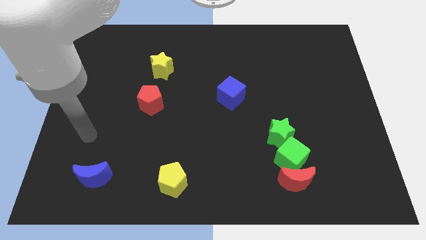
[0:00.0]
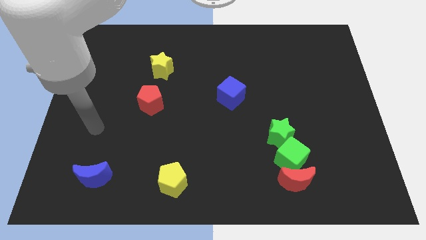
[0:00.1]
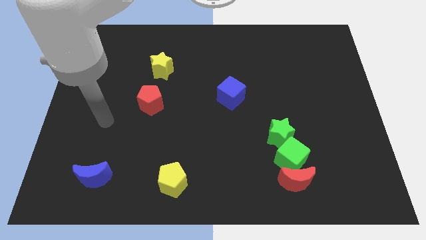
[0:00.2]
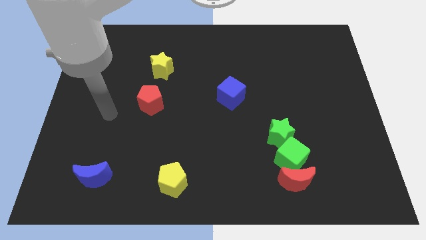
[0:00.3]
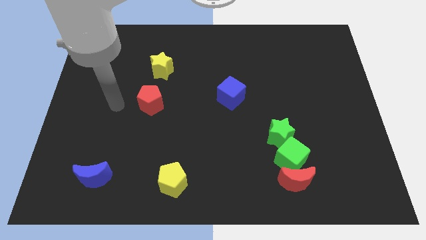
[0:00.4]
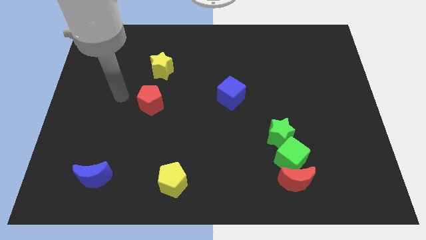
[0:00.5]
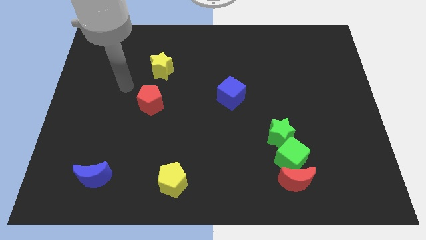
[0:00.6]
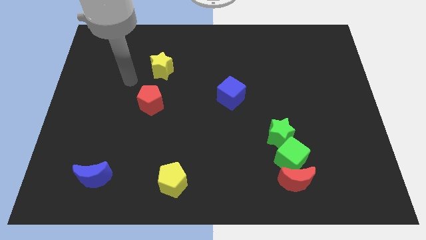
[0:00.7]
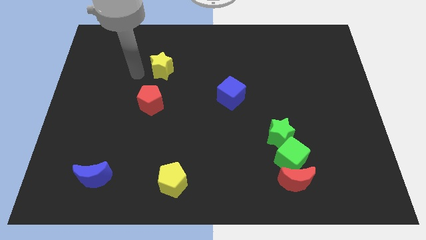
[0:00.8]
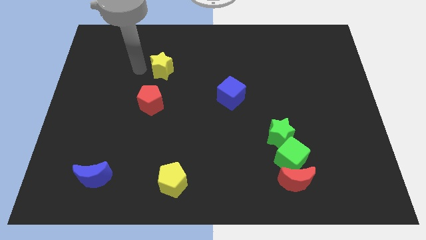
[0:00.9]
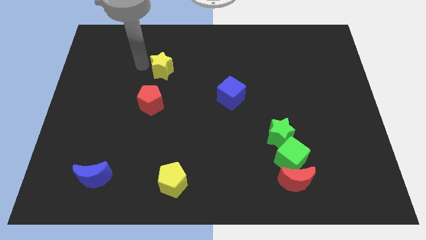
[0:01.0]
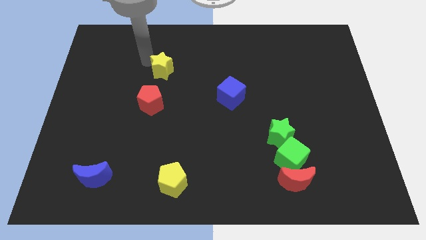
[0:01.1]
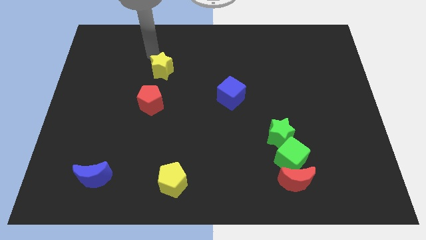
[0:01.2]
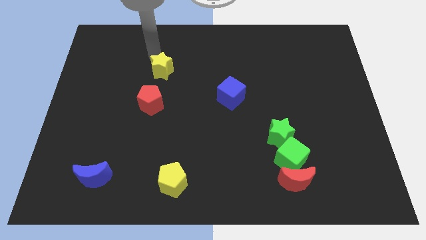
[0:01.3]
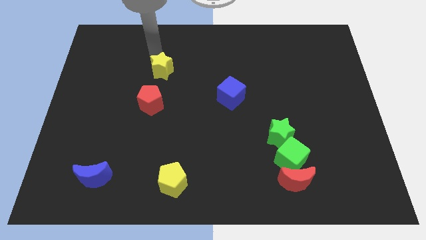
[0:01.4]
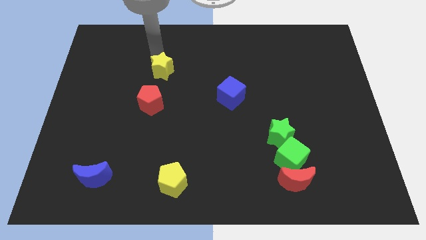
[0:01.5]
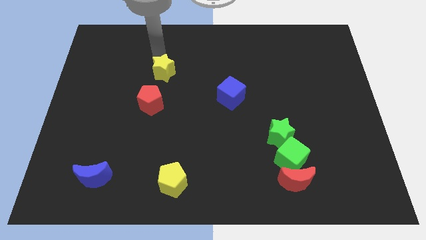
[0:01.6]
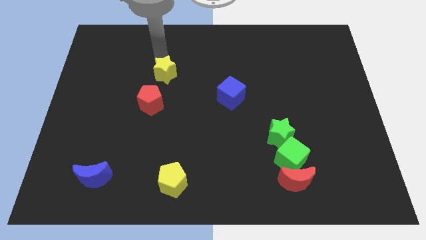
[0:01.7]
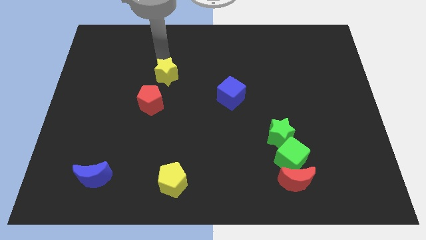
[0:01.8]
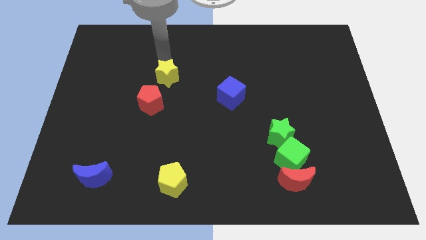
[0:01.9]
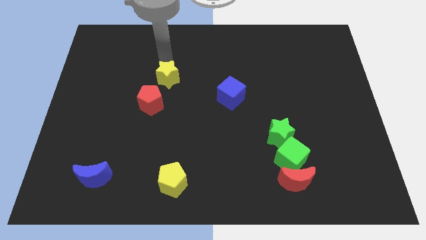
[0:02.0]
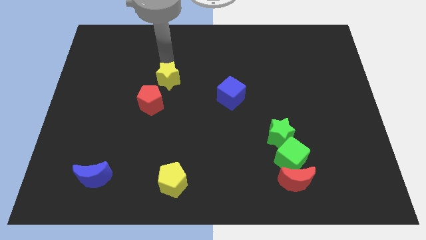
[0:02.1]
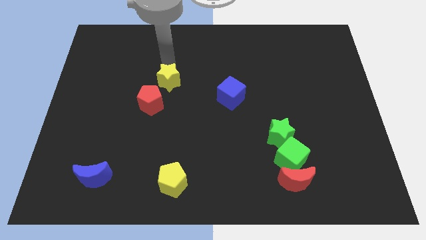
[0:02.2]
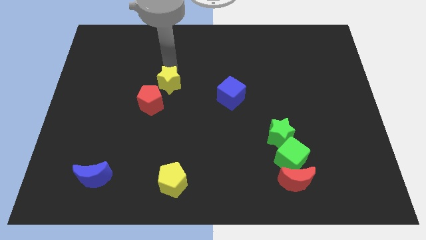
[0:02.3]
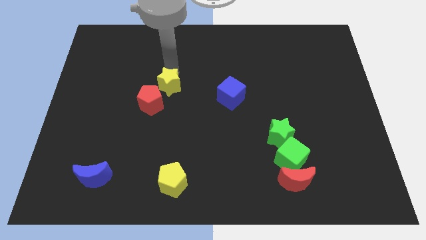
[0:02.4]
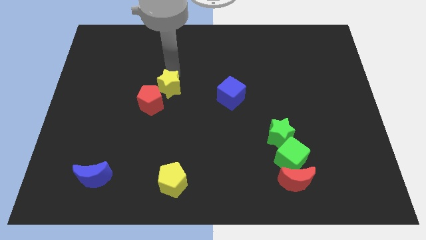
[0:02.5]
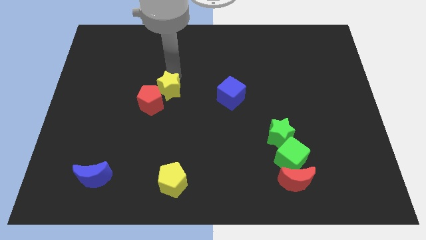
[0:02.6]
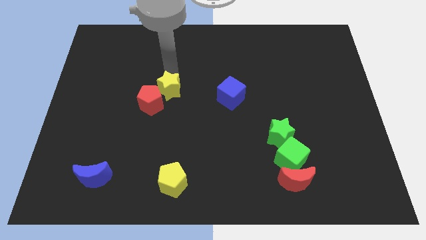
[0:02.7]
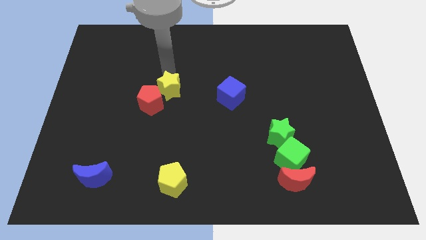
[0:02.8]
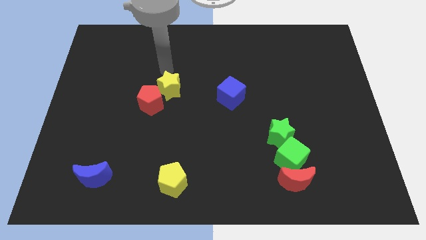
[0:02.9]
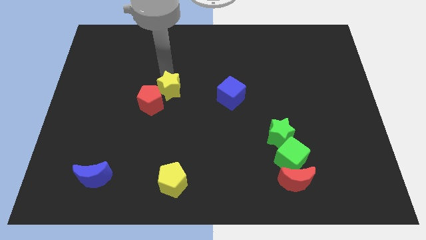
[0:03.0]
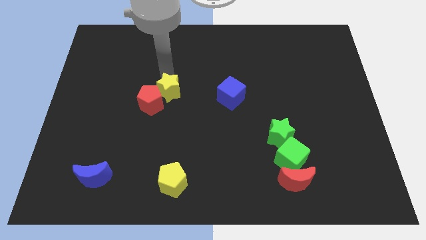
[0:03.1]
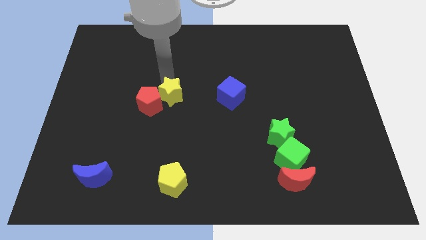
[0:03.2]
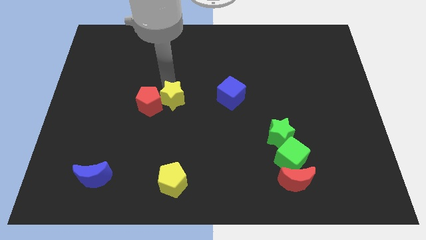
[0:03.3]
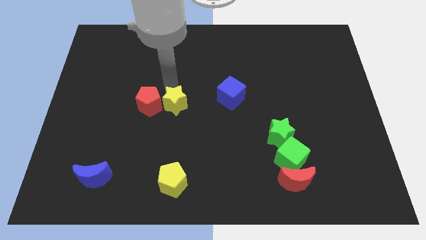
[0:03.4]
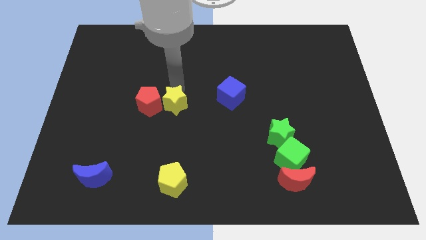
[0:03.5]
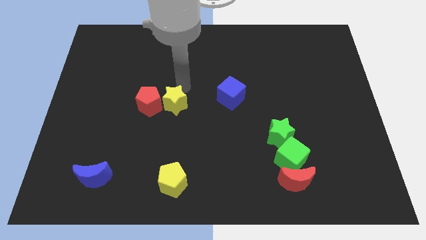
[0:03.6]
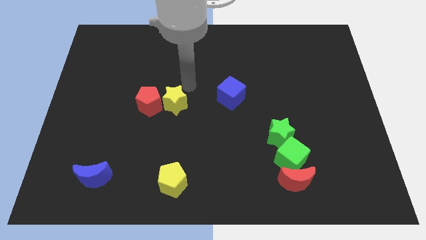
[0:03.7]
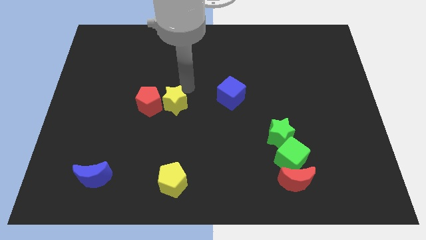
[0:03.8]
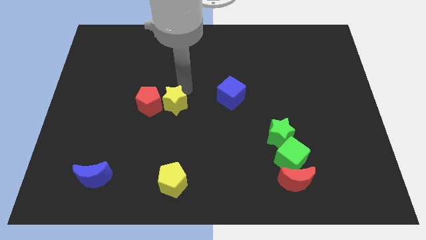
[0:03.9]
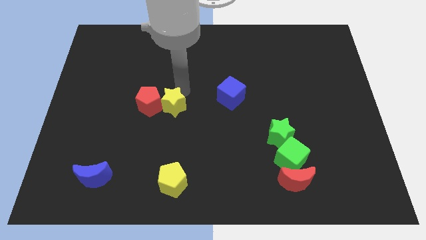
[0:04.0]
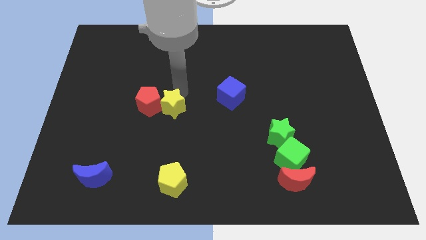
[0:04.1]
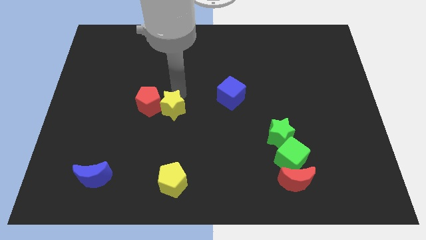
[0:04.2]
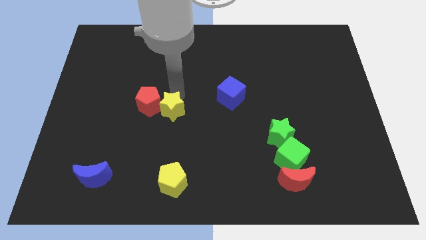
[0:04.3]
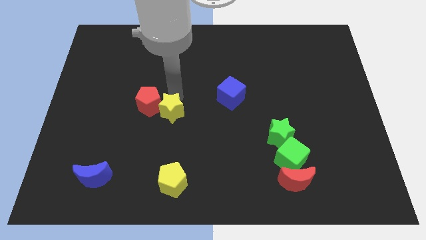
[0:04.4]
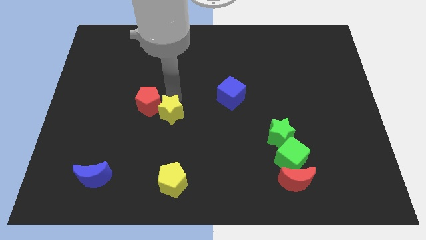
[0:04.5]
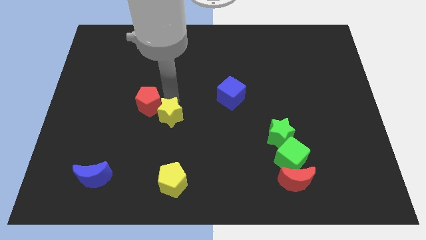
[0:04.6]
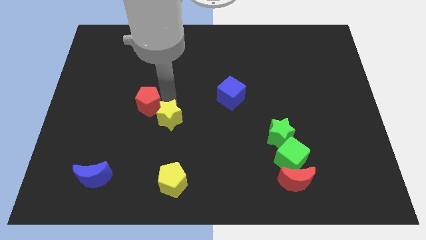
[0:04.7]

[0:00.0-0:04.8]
push the yellow star to the bottom of the red pentagon

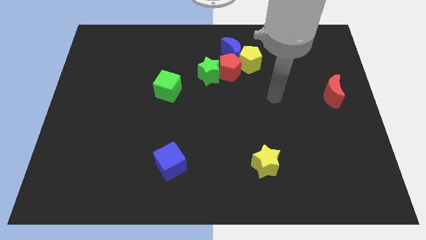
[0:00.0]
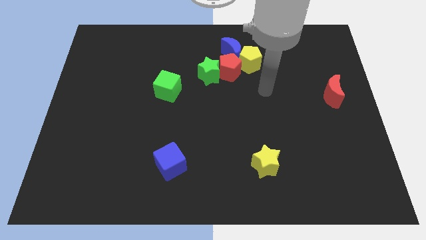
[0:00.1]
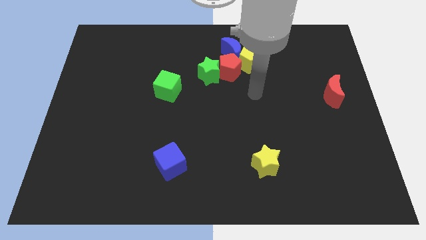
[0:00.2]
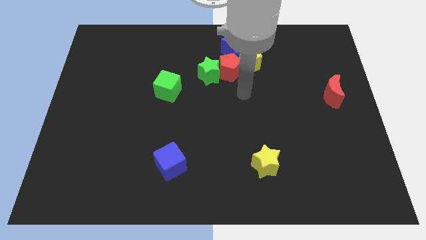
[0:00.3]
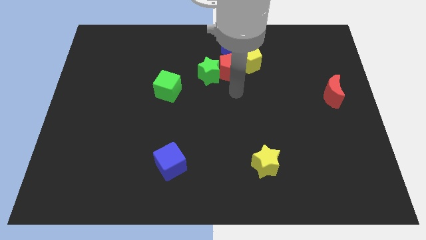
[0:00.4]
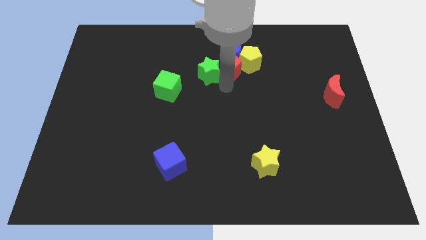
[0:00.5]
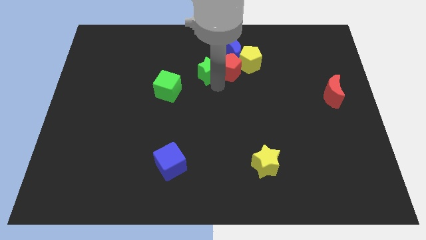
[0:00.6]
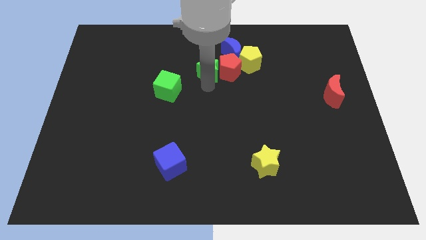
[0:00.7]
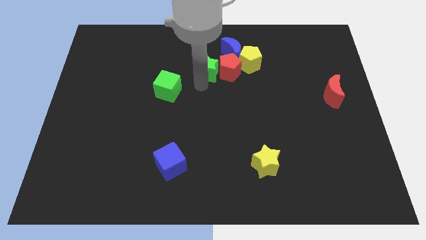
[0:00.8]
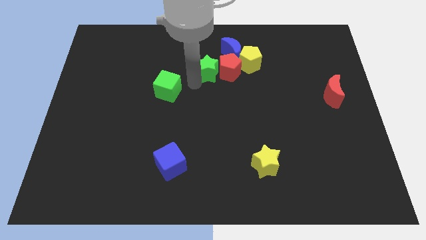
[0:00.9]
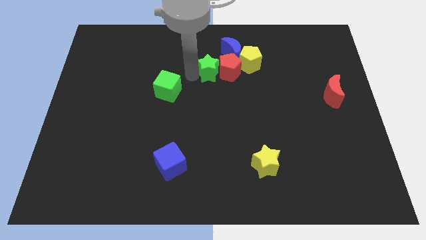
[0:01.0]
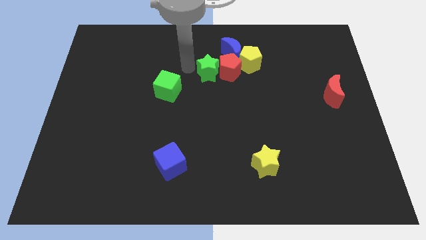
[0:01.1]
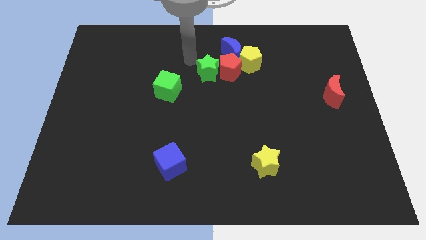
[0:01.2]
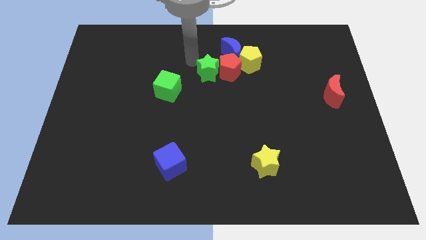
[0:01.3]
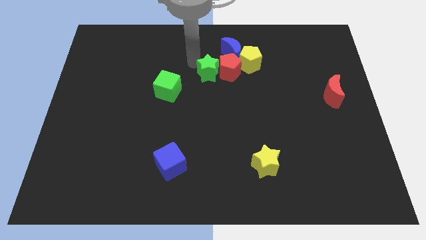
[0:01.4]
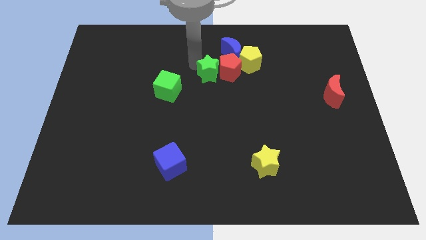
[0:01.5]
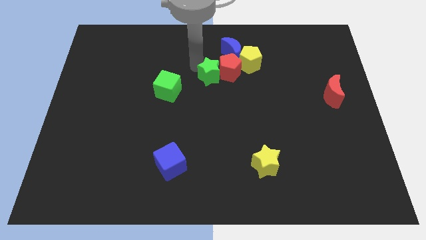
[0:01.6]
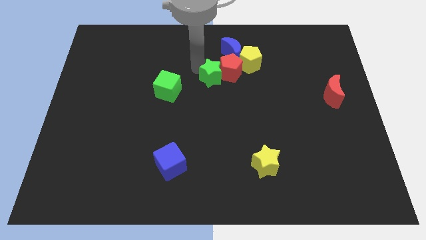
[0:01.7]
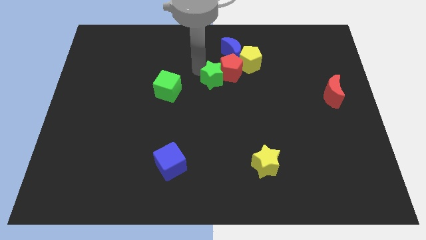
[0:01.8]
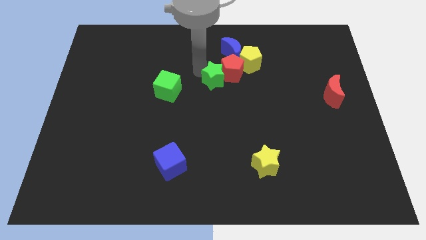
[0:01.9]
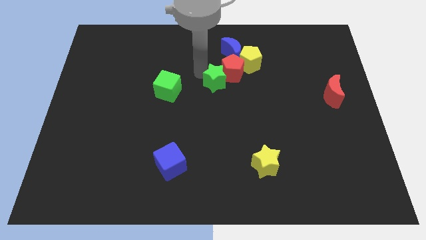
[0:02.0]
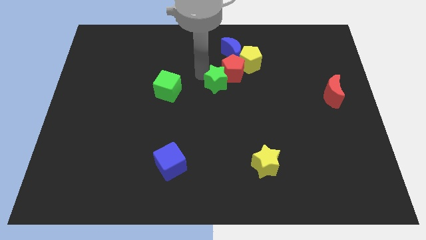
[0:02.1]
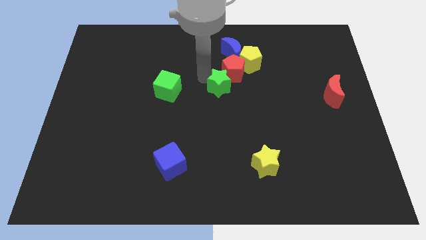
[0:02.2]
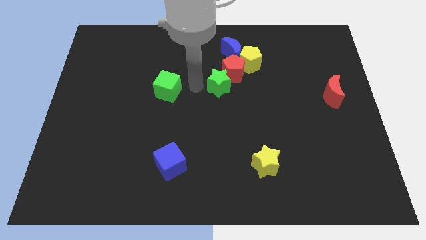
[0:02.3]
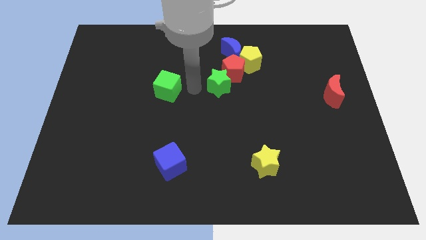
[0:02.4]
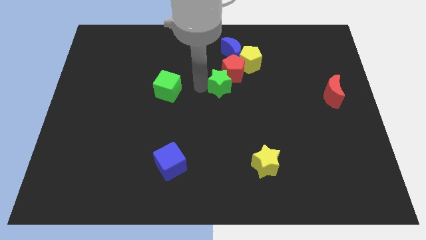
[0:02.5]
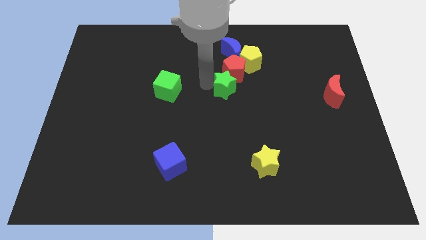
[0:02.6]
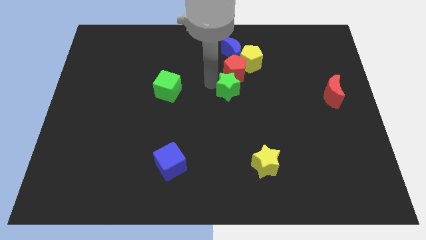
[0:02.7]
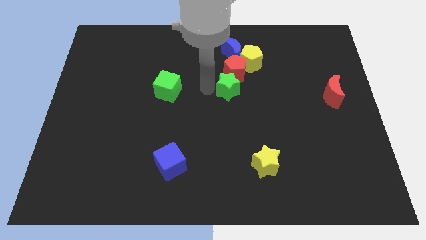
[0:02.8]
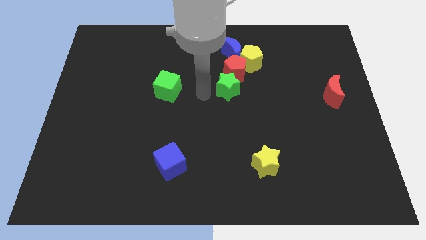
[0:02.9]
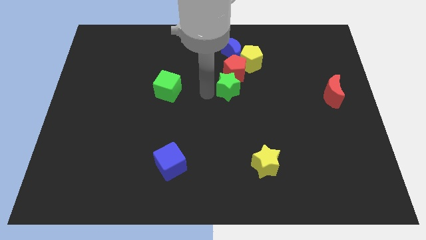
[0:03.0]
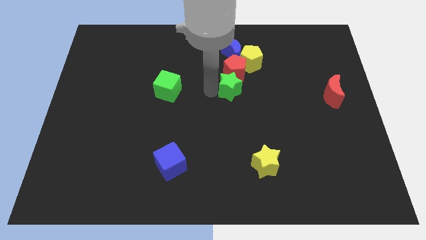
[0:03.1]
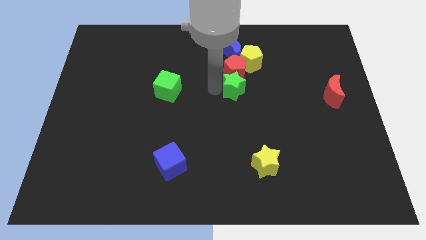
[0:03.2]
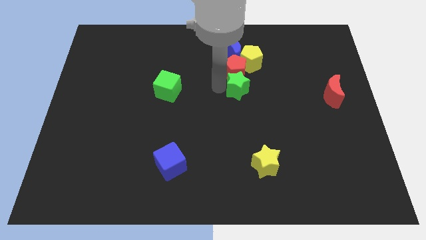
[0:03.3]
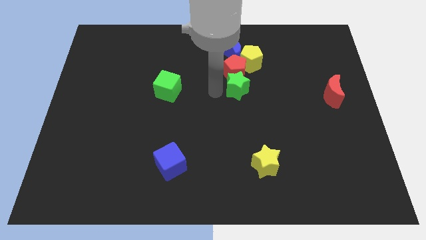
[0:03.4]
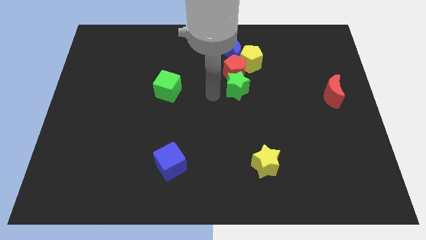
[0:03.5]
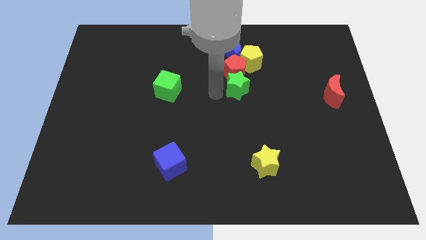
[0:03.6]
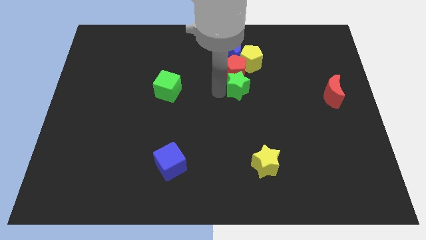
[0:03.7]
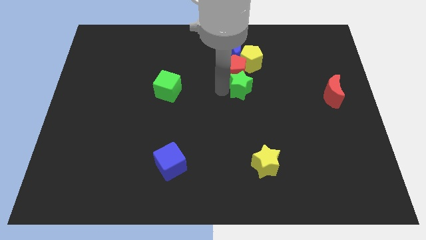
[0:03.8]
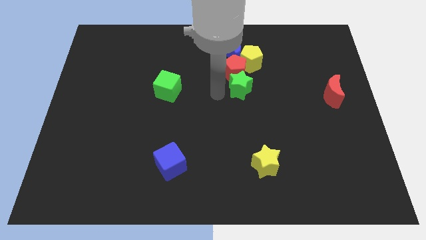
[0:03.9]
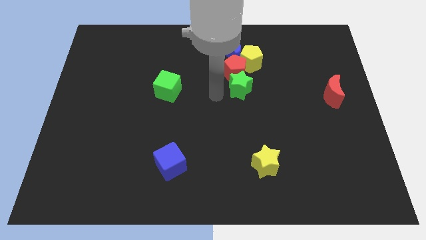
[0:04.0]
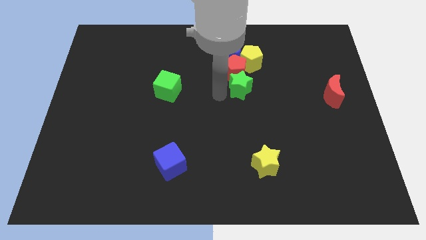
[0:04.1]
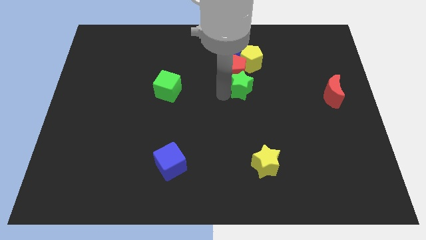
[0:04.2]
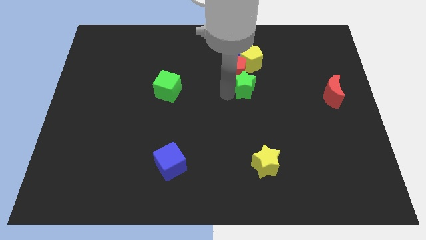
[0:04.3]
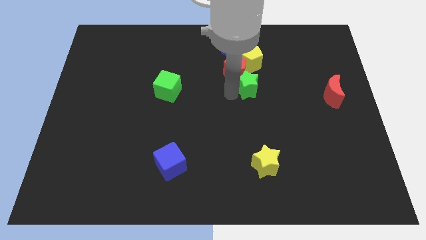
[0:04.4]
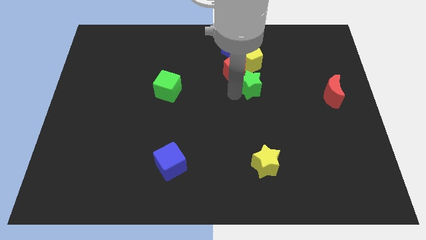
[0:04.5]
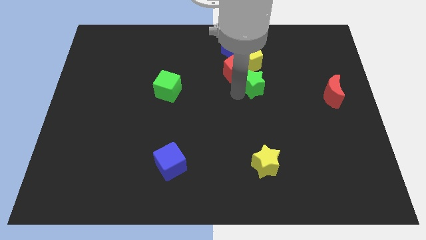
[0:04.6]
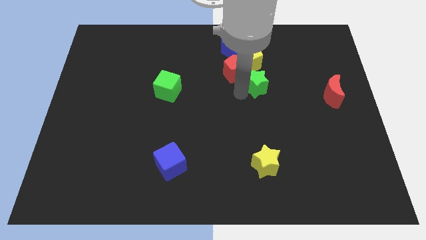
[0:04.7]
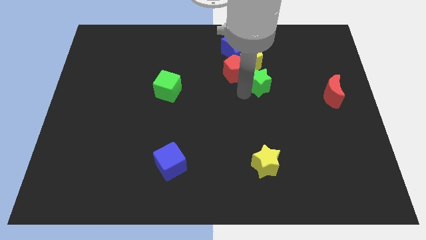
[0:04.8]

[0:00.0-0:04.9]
push the green star to the bottom right side of the yellow pentagon
